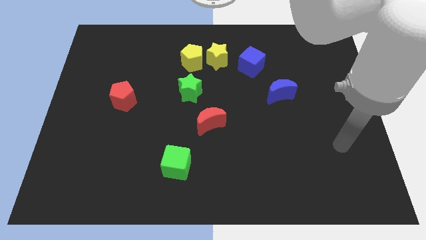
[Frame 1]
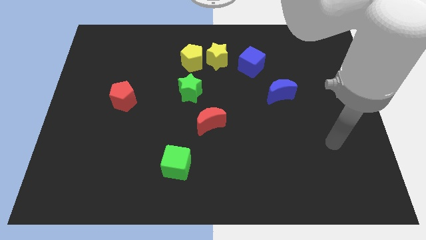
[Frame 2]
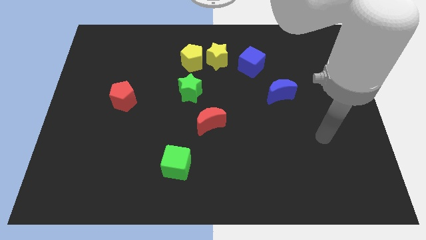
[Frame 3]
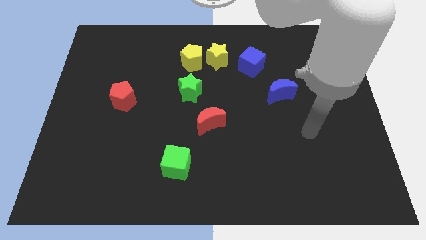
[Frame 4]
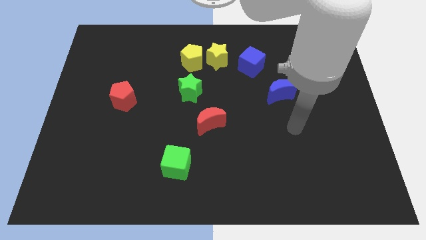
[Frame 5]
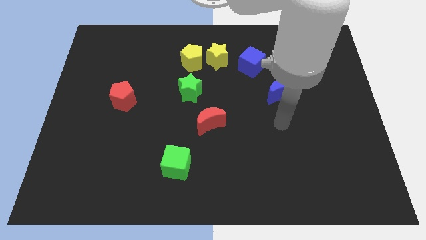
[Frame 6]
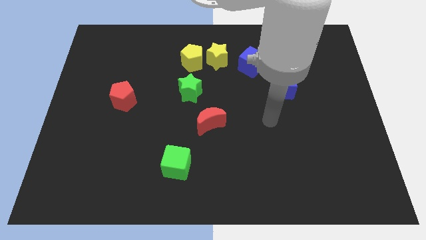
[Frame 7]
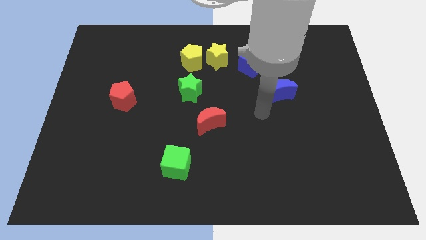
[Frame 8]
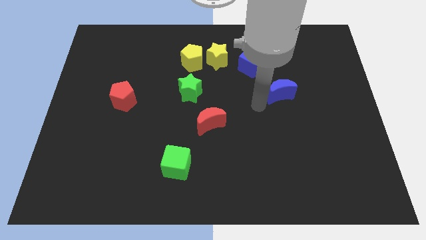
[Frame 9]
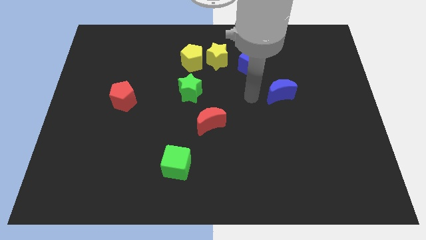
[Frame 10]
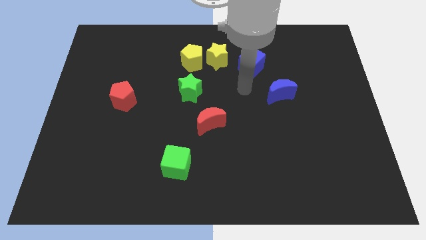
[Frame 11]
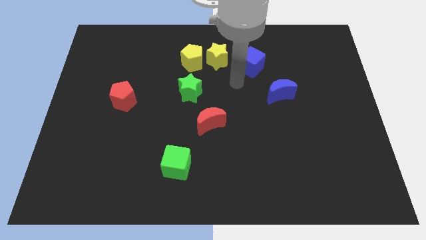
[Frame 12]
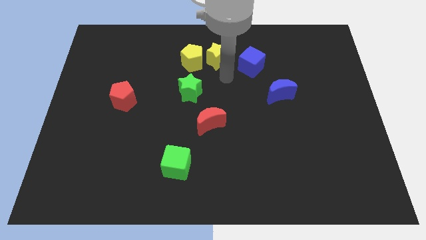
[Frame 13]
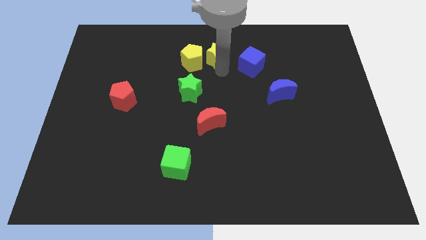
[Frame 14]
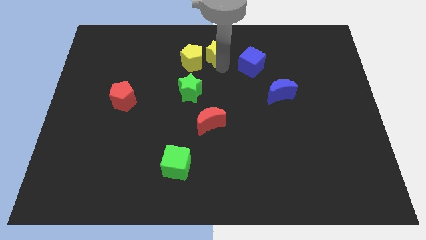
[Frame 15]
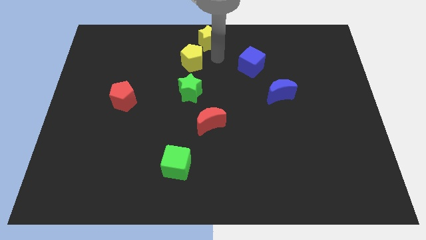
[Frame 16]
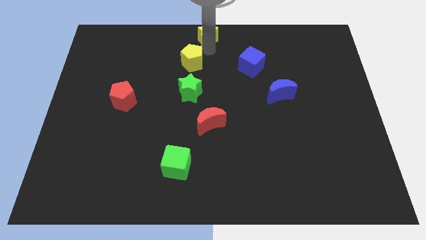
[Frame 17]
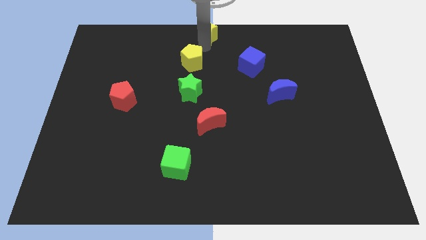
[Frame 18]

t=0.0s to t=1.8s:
move the yellow pentagon away from the yellow star

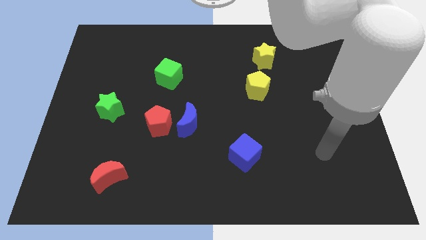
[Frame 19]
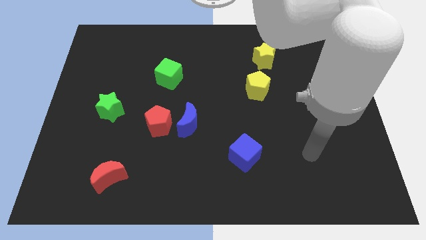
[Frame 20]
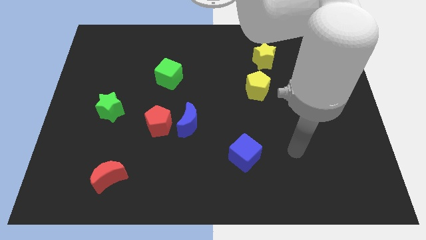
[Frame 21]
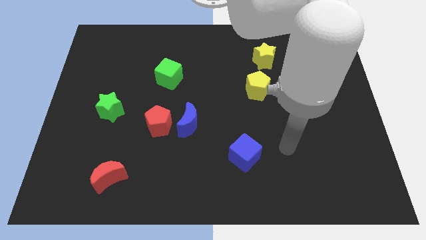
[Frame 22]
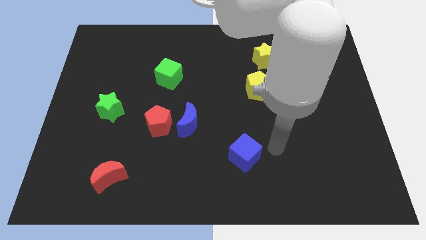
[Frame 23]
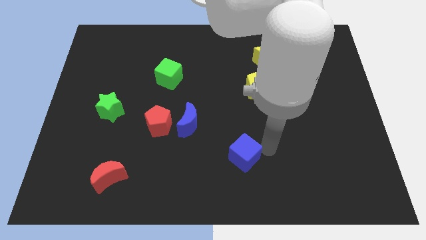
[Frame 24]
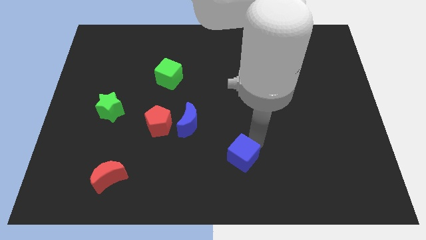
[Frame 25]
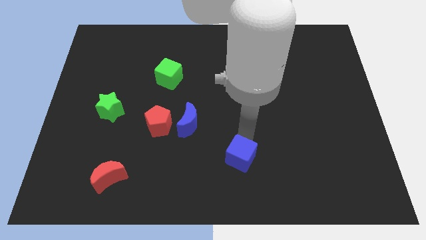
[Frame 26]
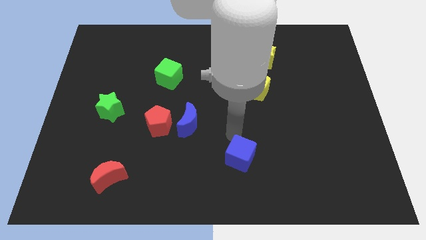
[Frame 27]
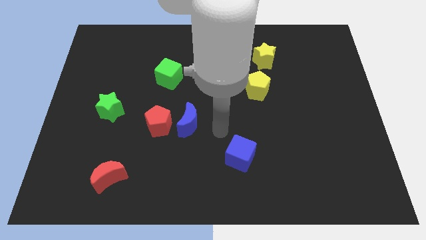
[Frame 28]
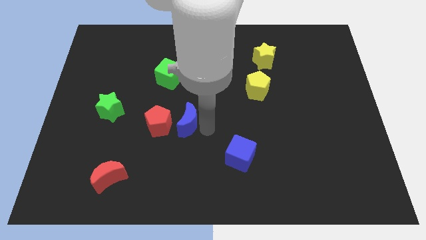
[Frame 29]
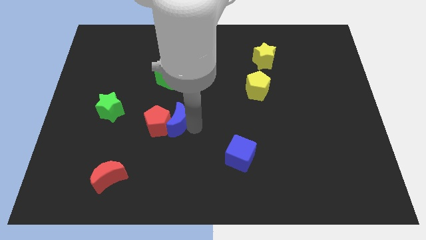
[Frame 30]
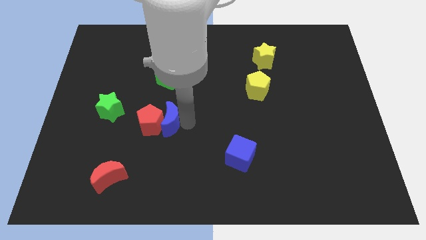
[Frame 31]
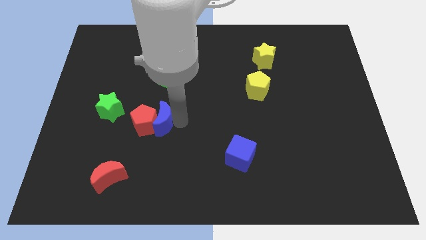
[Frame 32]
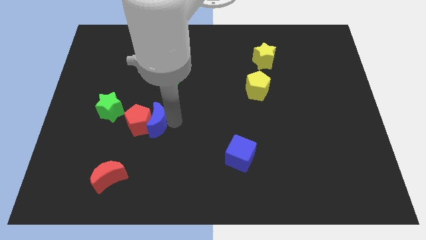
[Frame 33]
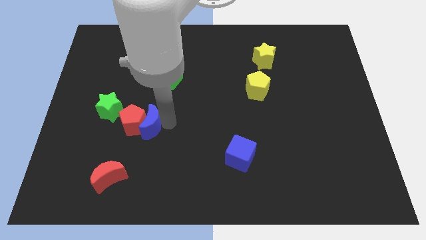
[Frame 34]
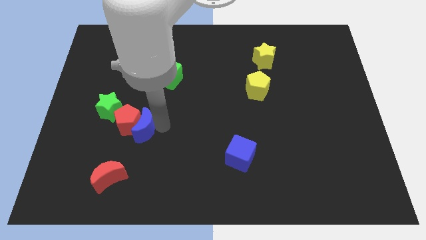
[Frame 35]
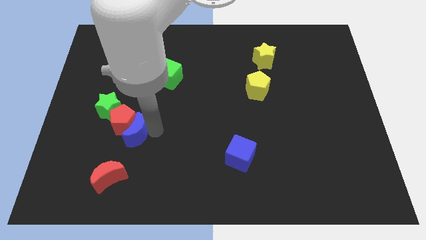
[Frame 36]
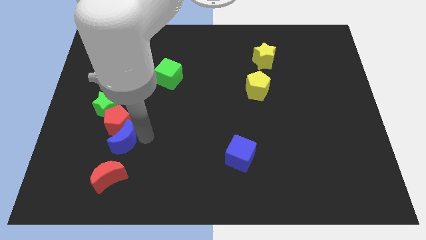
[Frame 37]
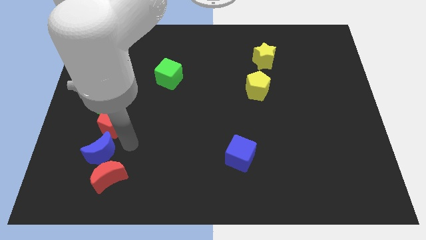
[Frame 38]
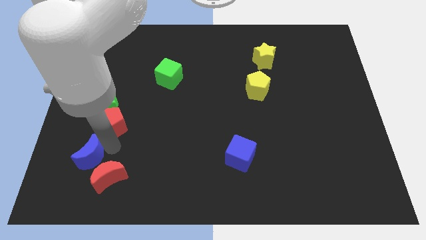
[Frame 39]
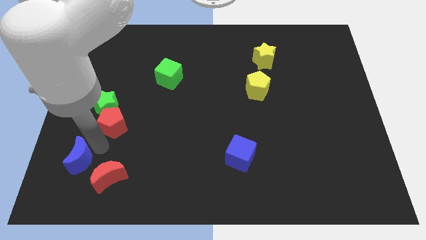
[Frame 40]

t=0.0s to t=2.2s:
pull the red pentagon apart from the blue moon

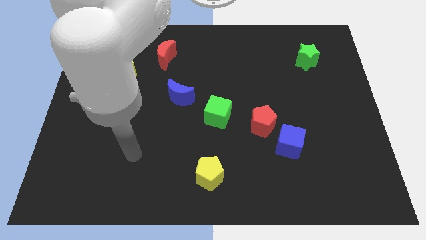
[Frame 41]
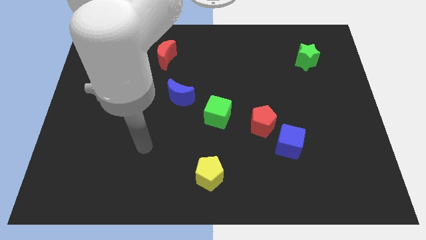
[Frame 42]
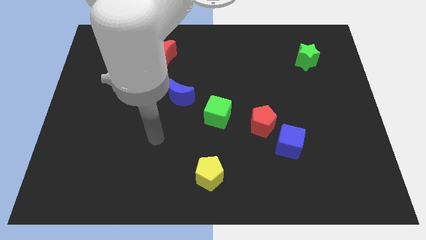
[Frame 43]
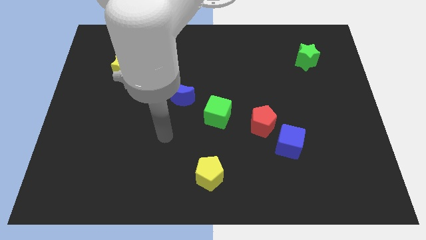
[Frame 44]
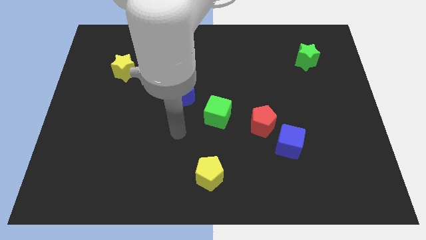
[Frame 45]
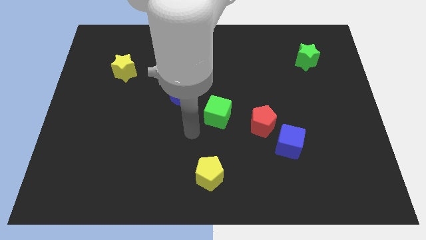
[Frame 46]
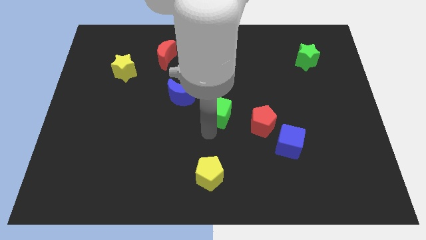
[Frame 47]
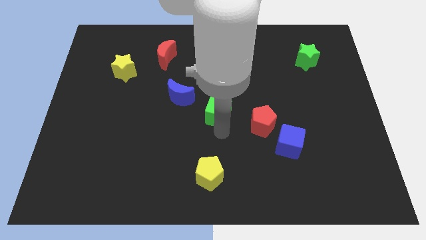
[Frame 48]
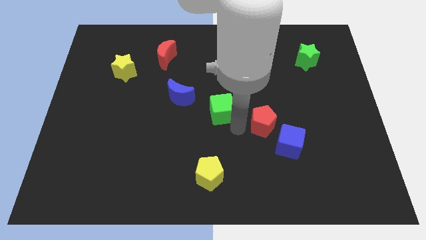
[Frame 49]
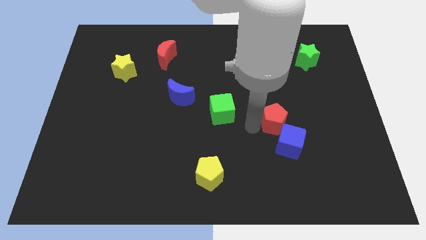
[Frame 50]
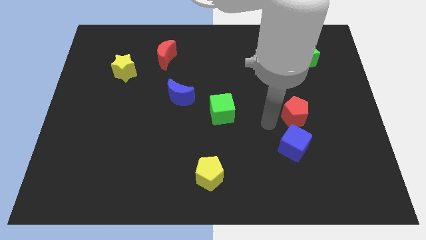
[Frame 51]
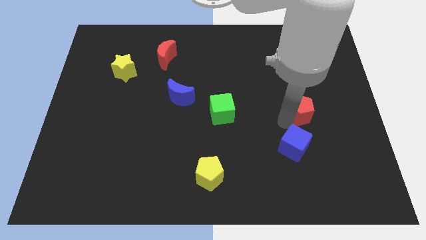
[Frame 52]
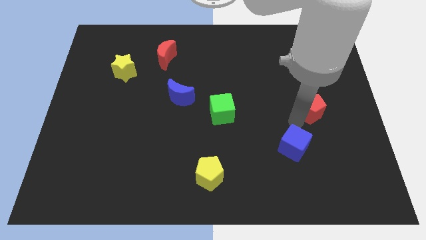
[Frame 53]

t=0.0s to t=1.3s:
move the blue cube away from the red pentagon

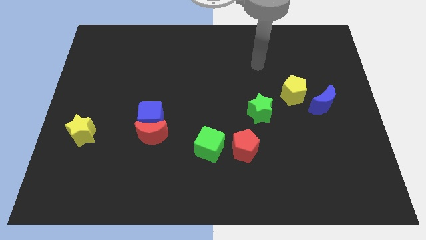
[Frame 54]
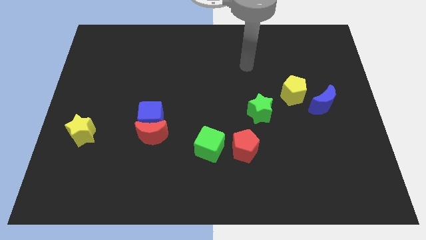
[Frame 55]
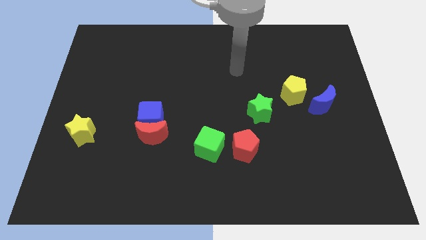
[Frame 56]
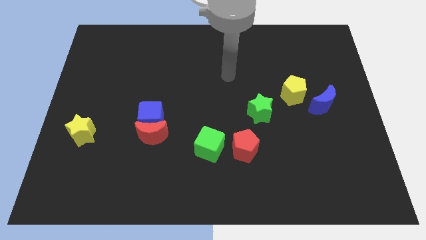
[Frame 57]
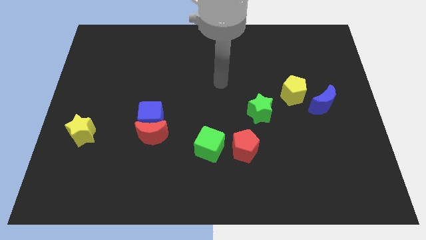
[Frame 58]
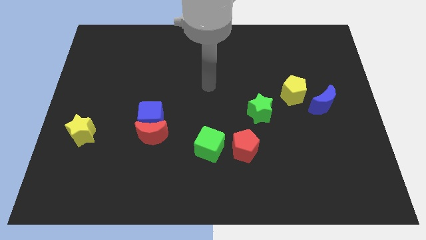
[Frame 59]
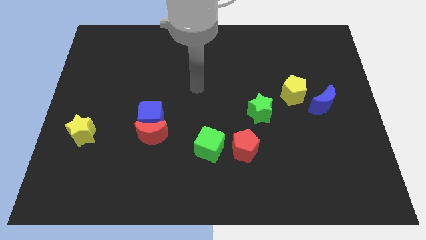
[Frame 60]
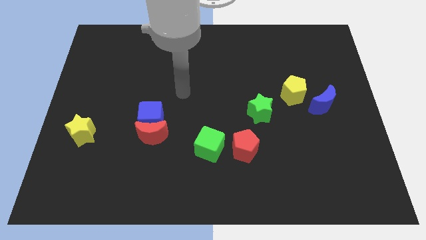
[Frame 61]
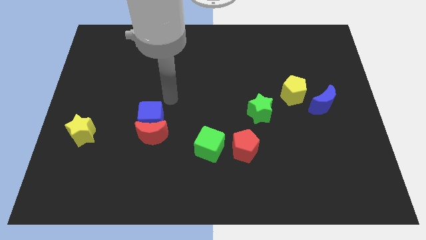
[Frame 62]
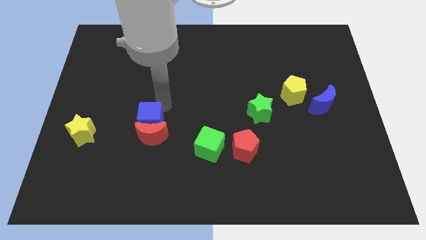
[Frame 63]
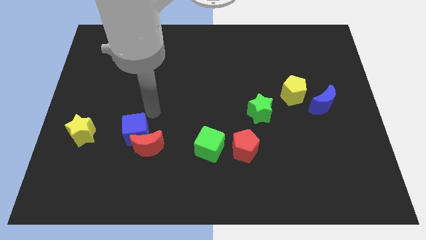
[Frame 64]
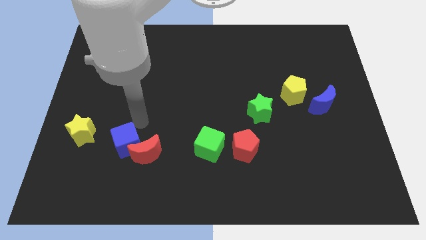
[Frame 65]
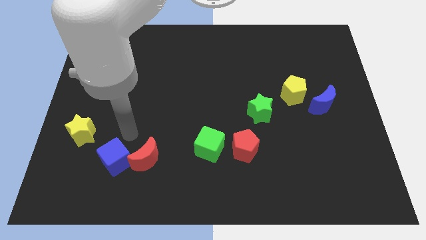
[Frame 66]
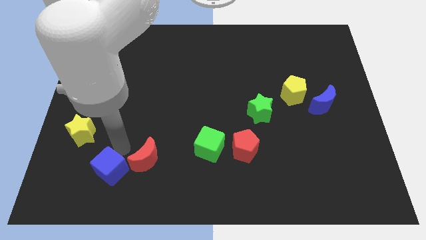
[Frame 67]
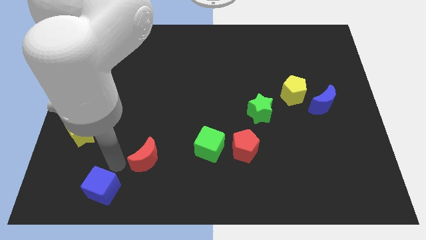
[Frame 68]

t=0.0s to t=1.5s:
pull the red moon apart from the blue cube

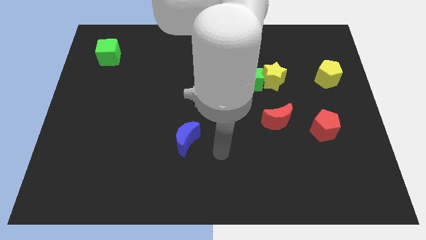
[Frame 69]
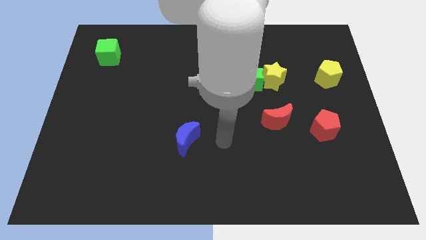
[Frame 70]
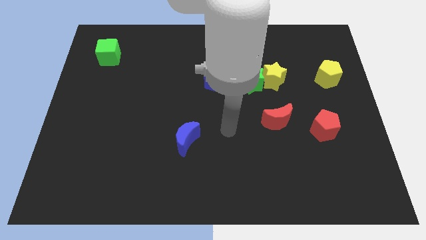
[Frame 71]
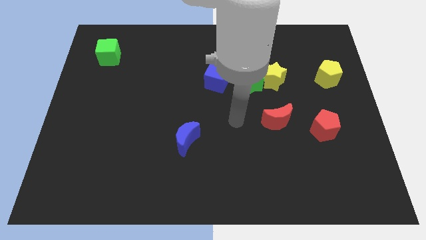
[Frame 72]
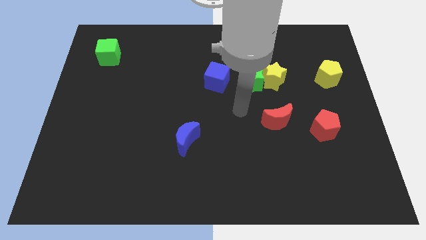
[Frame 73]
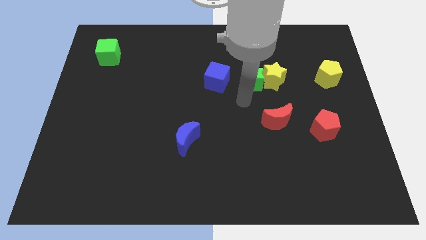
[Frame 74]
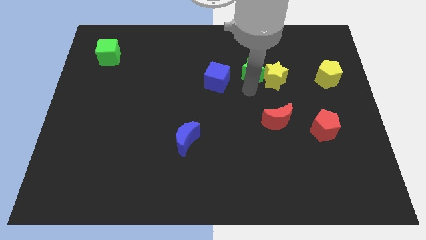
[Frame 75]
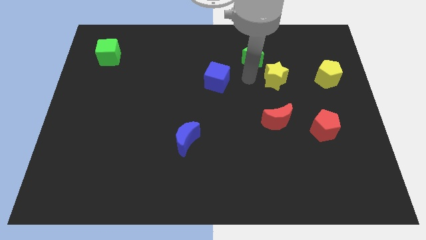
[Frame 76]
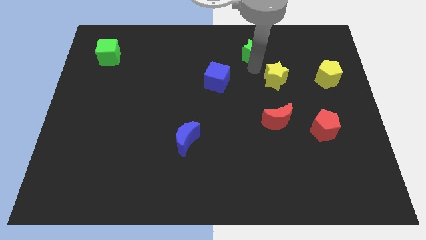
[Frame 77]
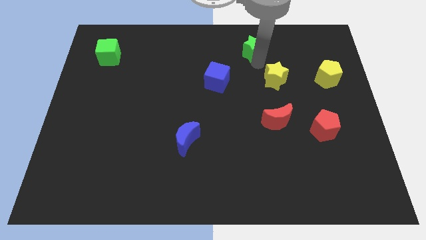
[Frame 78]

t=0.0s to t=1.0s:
separate the yellow star from the green star

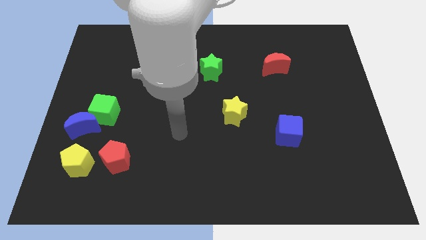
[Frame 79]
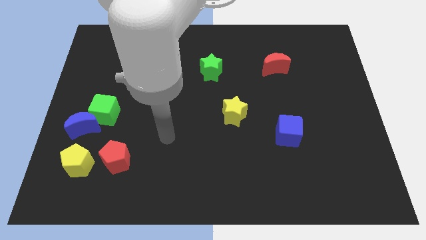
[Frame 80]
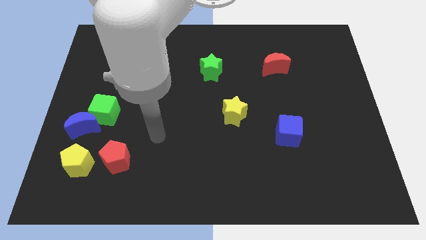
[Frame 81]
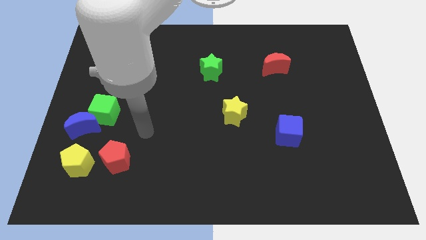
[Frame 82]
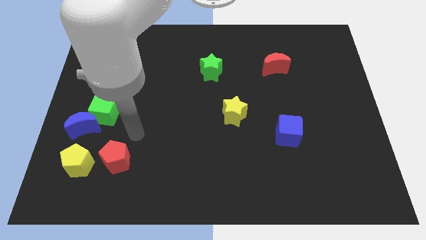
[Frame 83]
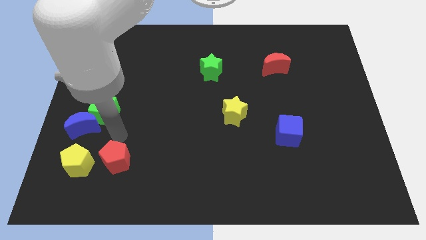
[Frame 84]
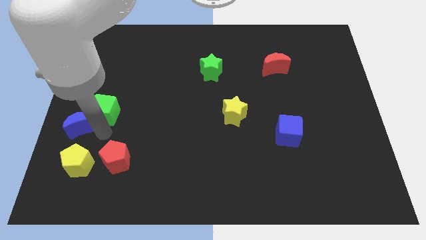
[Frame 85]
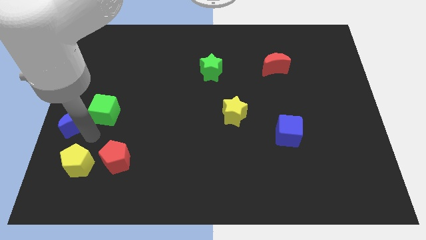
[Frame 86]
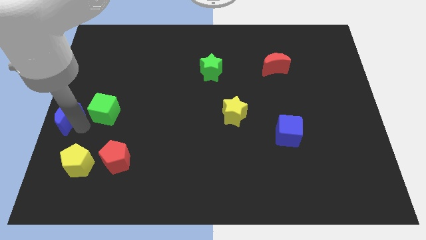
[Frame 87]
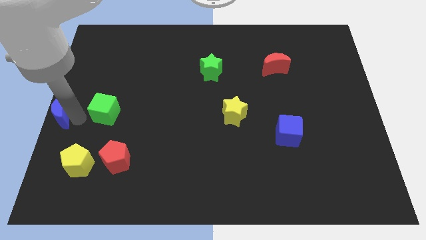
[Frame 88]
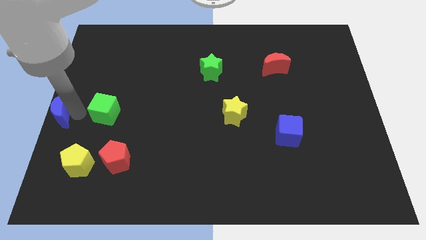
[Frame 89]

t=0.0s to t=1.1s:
separate the green cube from the blue moon

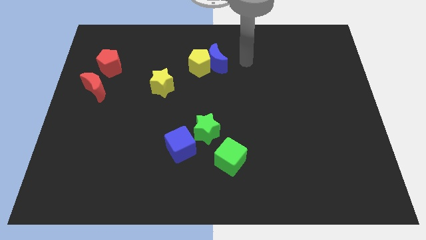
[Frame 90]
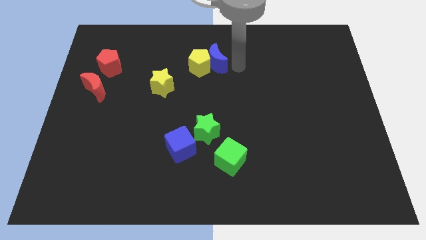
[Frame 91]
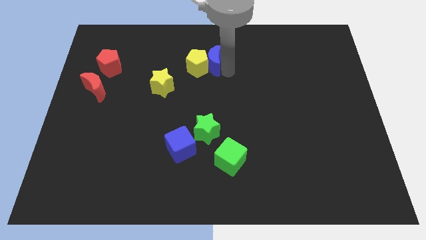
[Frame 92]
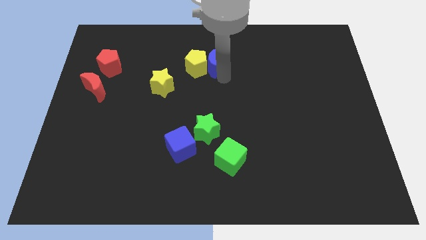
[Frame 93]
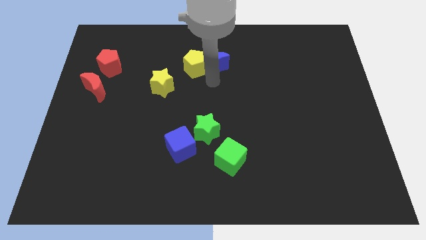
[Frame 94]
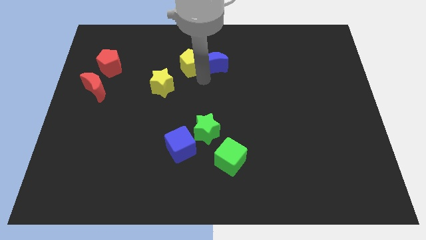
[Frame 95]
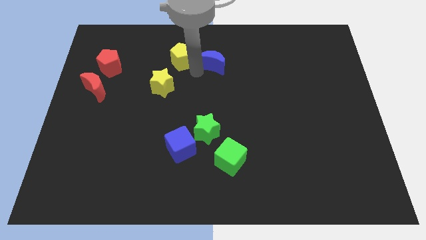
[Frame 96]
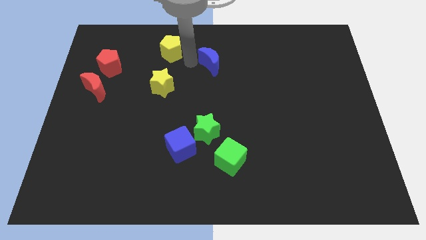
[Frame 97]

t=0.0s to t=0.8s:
pull the blue moon apart from the yellow pentagon
